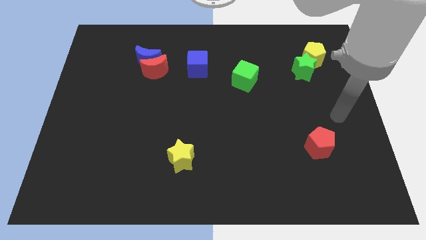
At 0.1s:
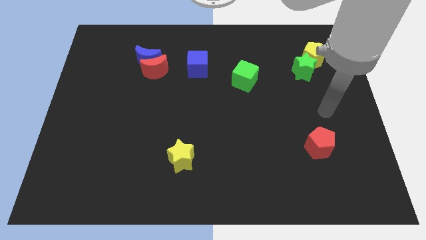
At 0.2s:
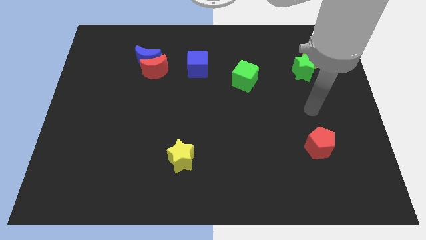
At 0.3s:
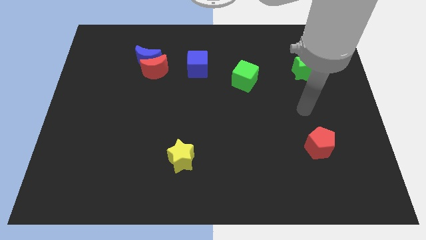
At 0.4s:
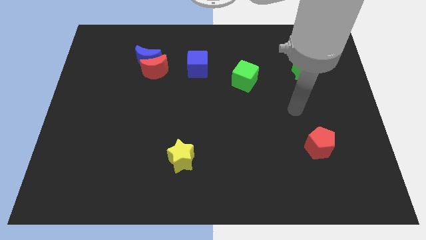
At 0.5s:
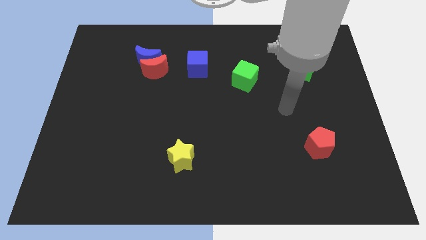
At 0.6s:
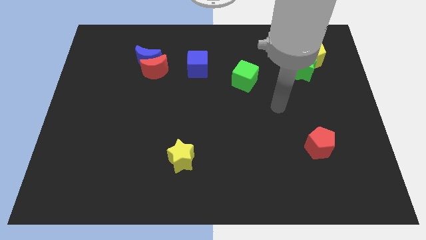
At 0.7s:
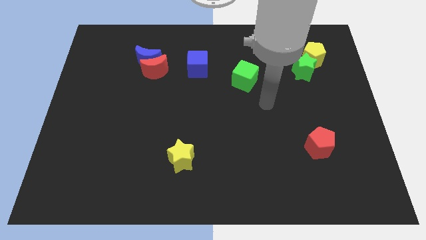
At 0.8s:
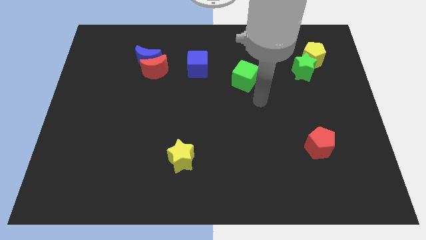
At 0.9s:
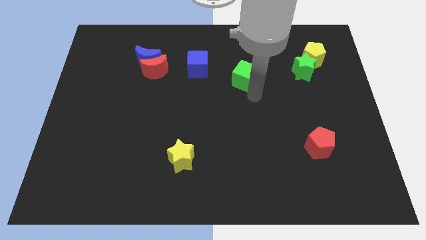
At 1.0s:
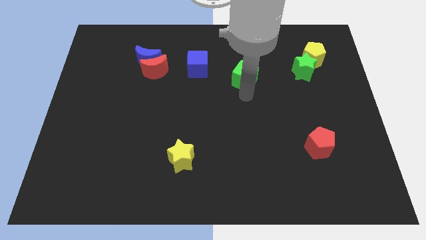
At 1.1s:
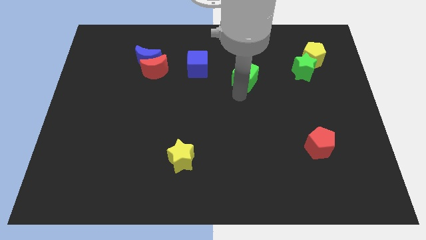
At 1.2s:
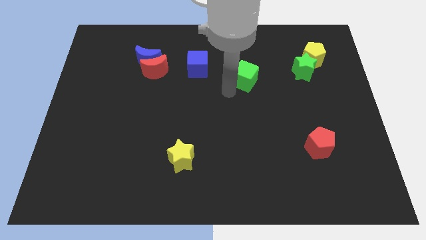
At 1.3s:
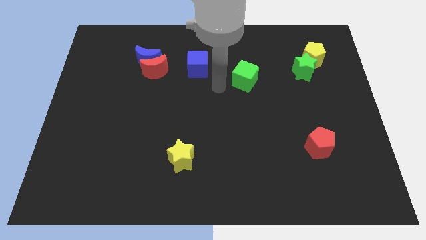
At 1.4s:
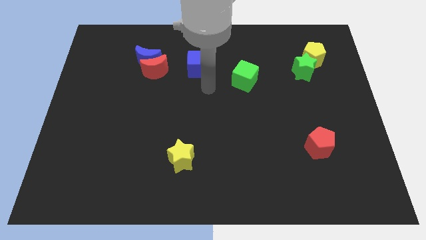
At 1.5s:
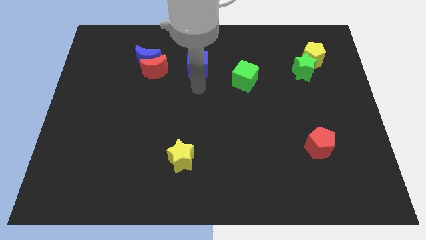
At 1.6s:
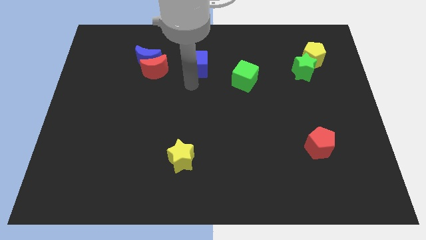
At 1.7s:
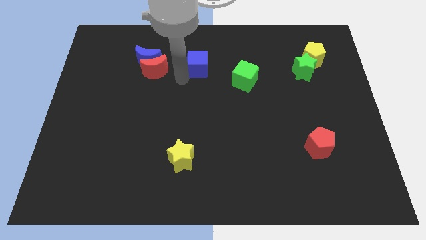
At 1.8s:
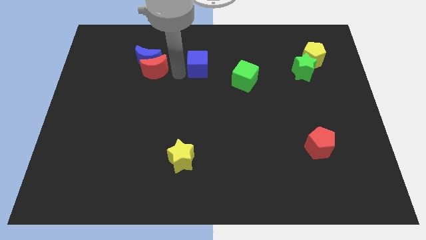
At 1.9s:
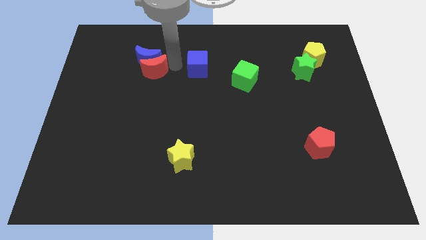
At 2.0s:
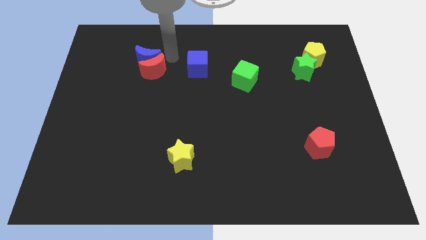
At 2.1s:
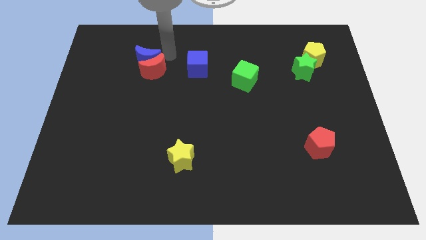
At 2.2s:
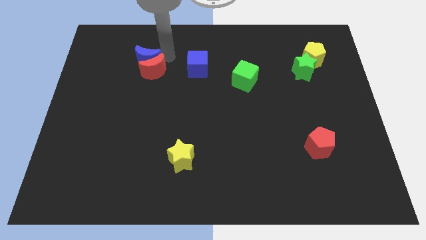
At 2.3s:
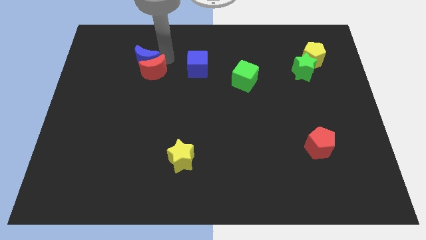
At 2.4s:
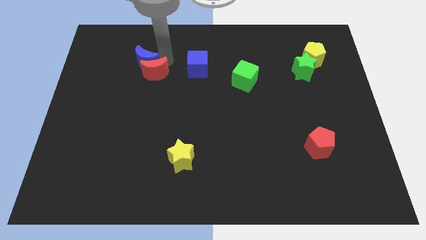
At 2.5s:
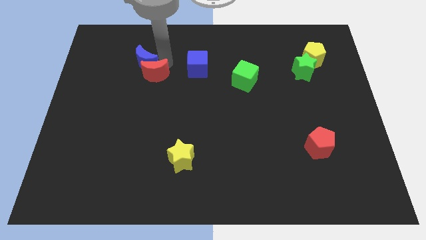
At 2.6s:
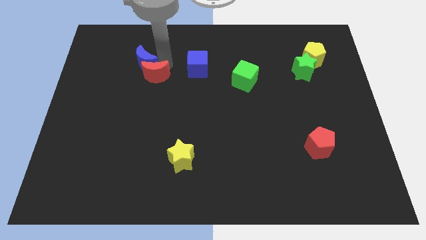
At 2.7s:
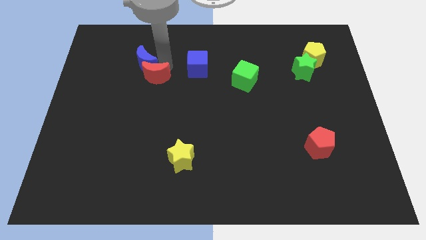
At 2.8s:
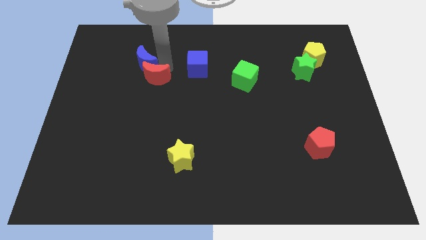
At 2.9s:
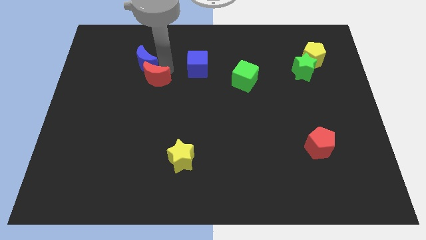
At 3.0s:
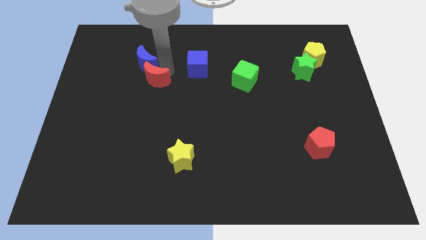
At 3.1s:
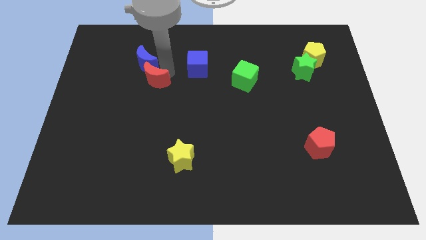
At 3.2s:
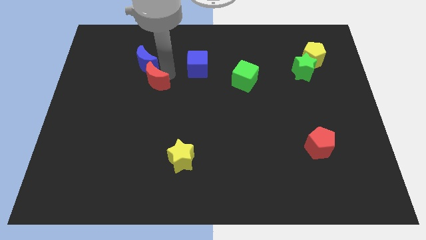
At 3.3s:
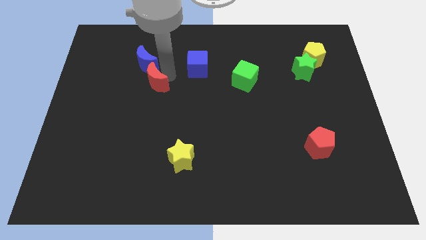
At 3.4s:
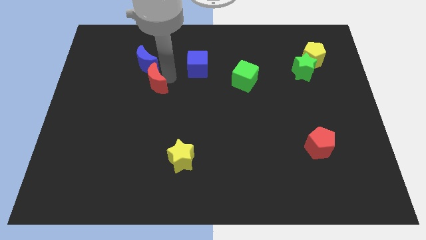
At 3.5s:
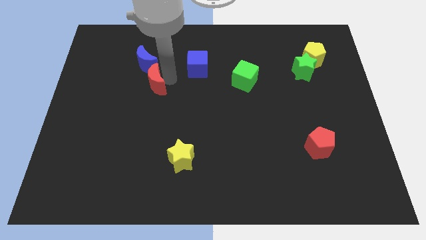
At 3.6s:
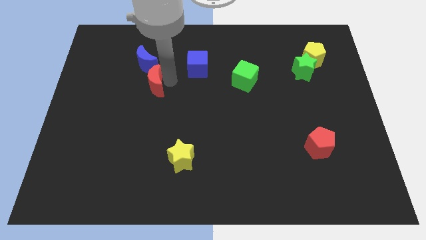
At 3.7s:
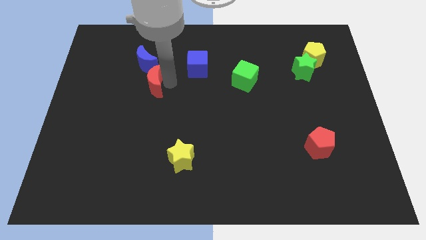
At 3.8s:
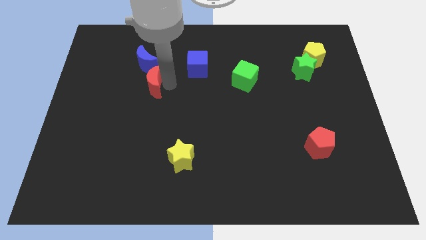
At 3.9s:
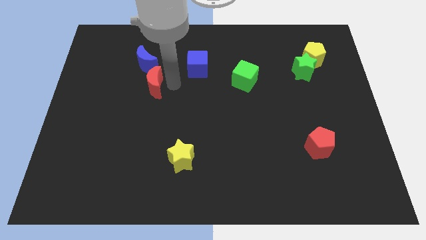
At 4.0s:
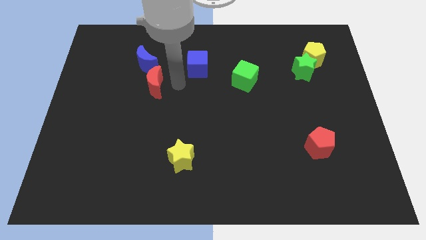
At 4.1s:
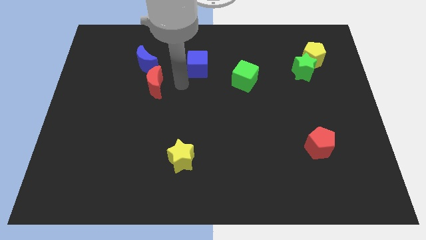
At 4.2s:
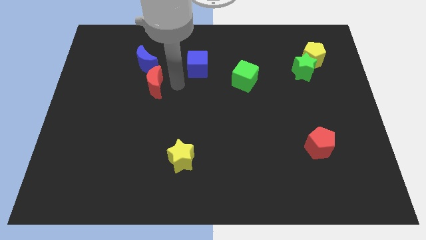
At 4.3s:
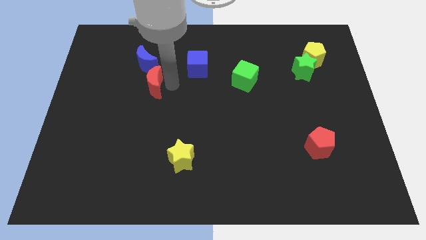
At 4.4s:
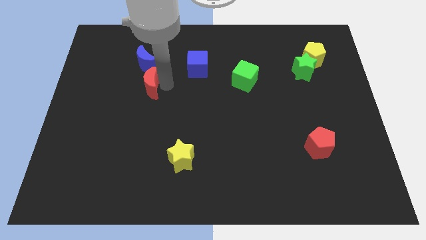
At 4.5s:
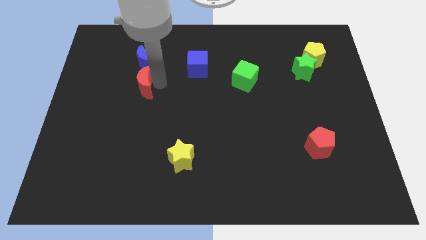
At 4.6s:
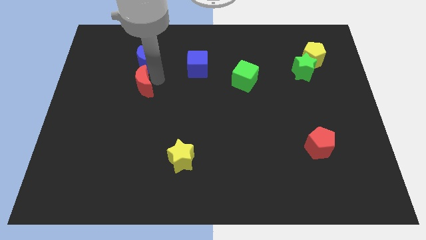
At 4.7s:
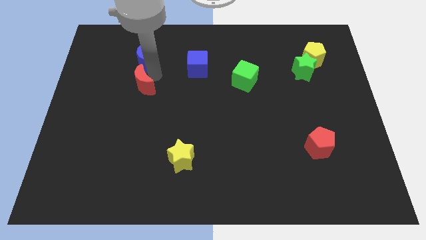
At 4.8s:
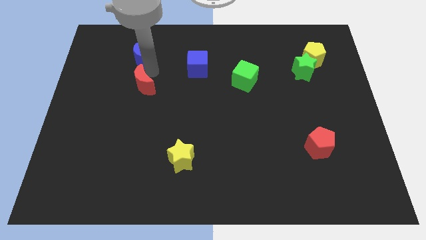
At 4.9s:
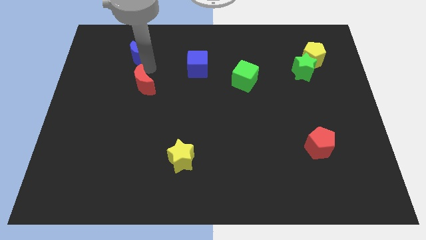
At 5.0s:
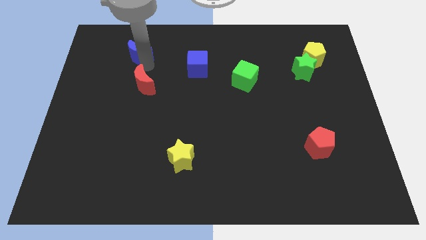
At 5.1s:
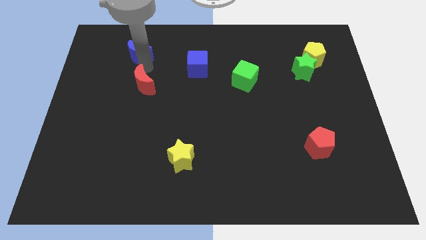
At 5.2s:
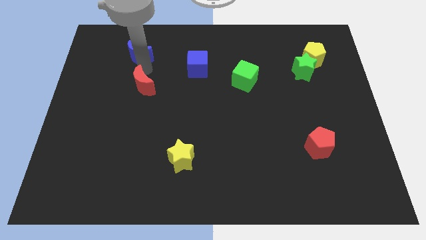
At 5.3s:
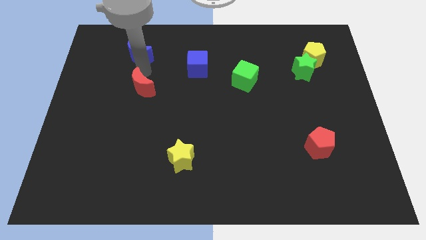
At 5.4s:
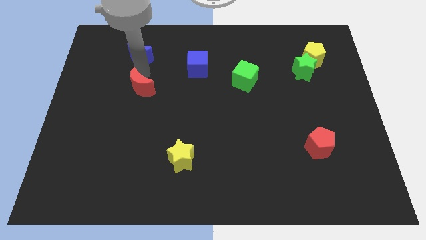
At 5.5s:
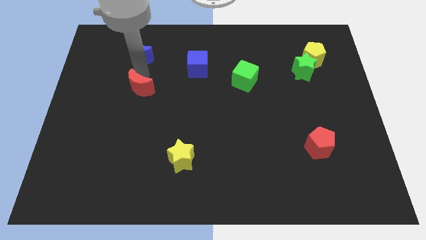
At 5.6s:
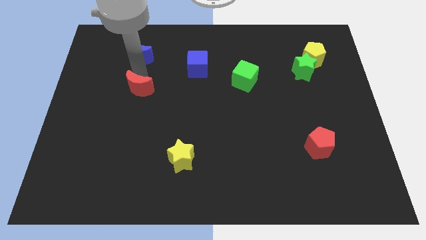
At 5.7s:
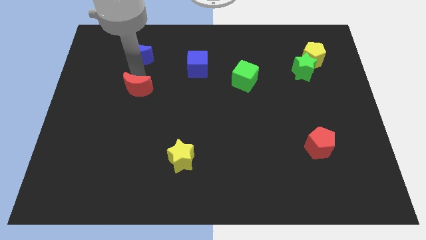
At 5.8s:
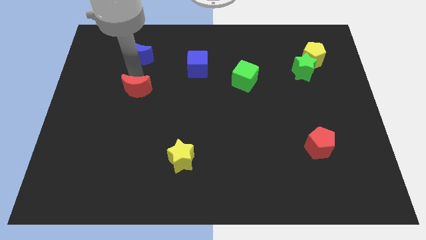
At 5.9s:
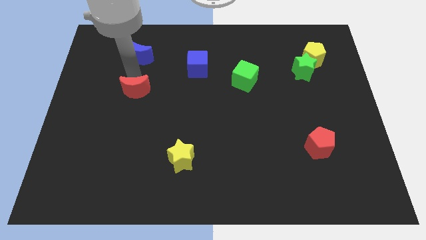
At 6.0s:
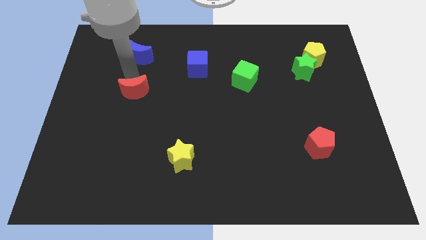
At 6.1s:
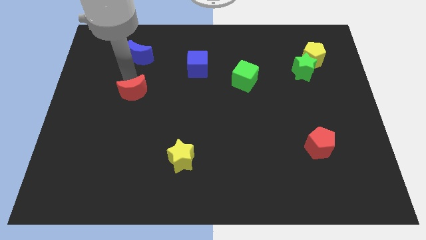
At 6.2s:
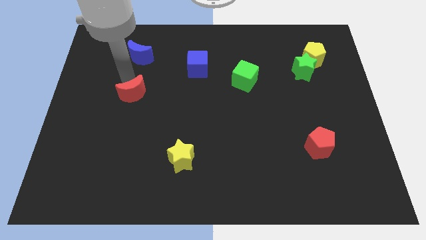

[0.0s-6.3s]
push the red moon a little bit down

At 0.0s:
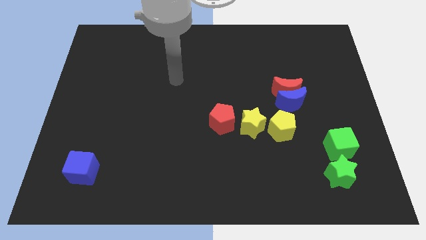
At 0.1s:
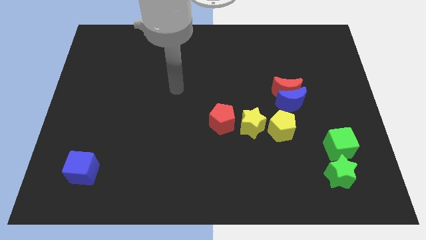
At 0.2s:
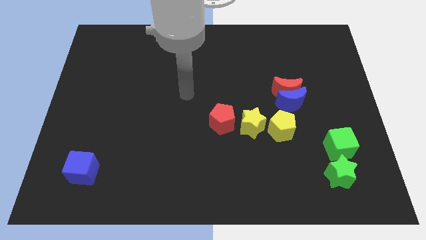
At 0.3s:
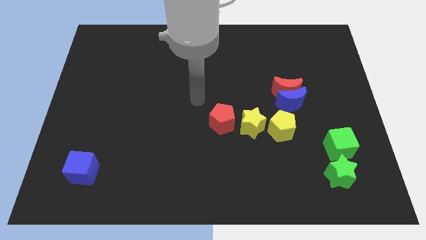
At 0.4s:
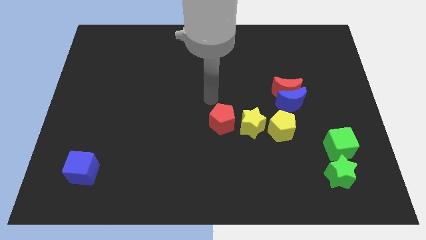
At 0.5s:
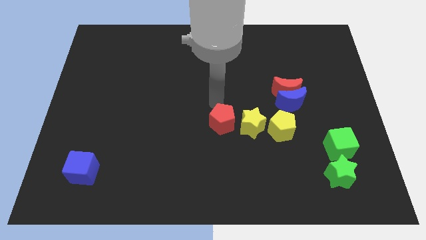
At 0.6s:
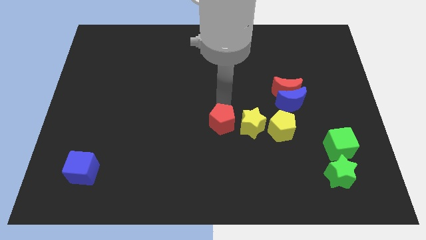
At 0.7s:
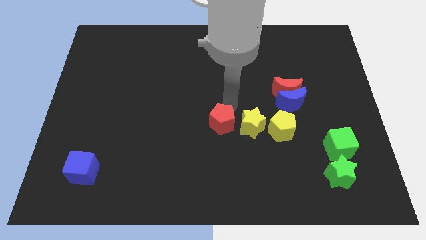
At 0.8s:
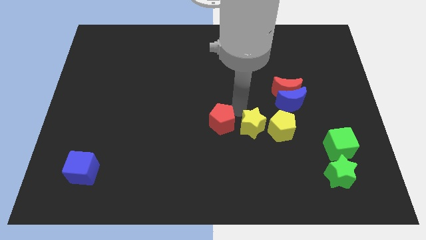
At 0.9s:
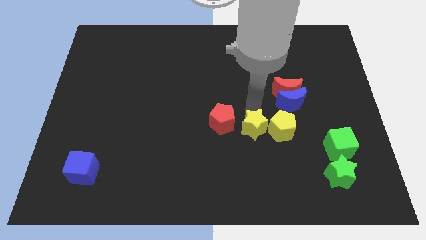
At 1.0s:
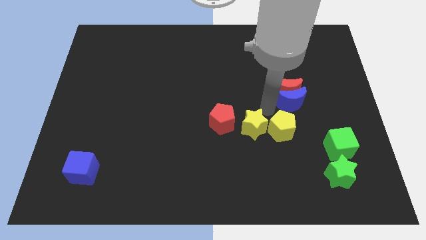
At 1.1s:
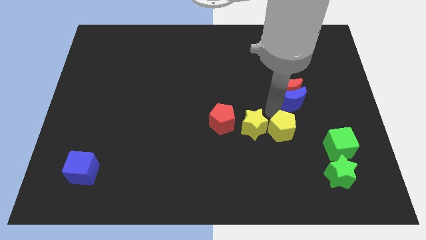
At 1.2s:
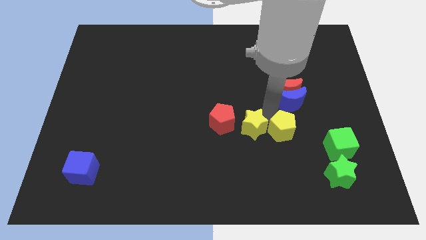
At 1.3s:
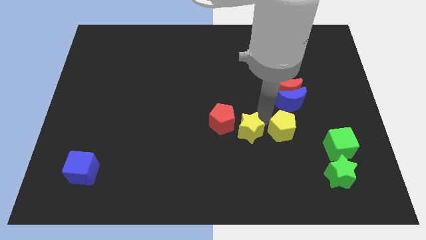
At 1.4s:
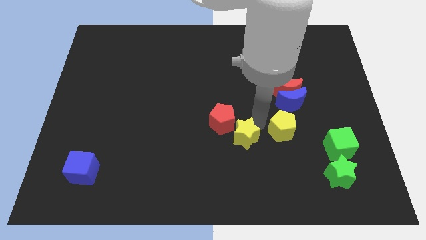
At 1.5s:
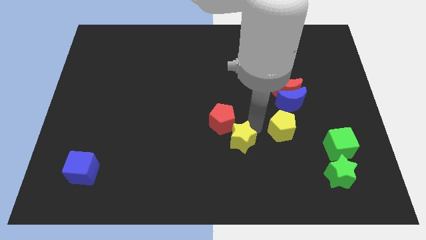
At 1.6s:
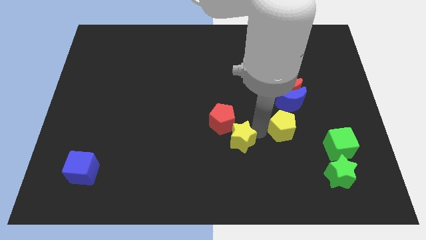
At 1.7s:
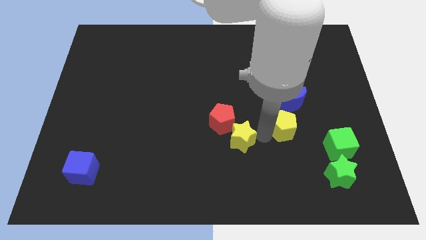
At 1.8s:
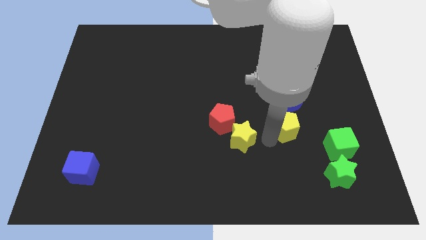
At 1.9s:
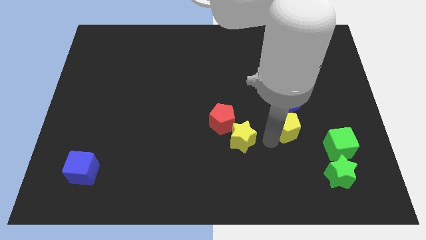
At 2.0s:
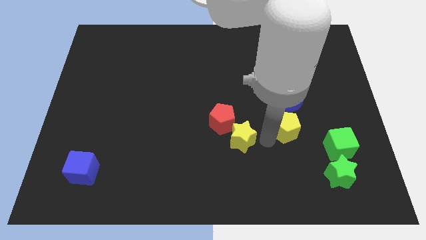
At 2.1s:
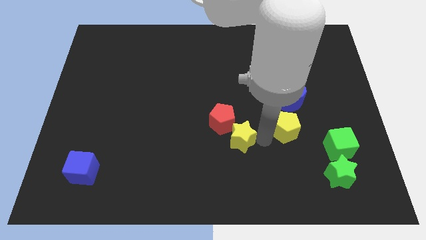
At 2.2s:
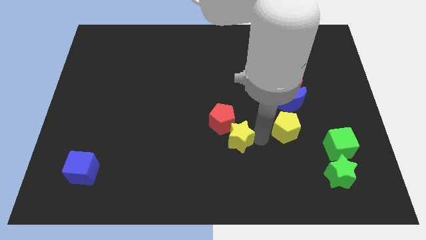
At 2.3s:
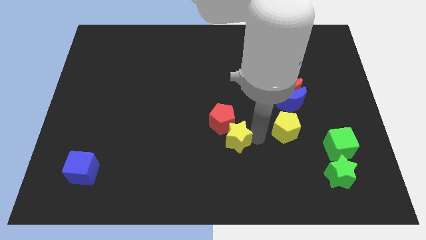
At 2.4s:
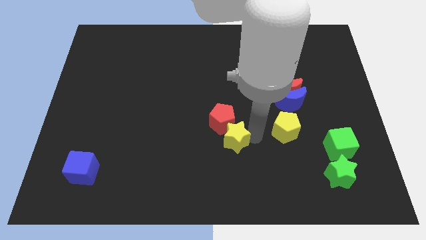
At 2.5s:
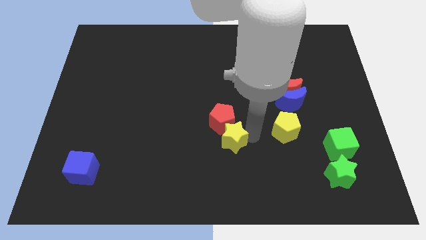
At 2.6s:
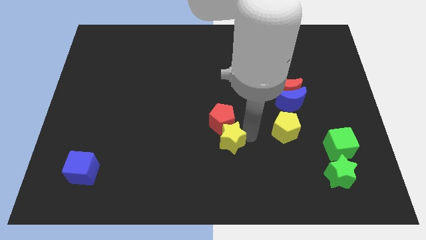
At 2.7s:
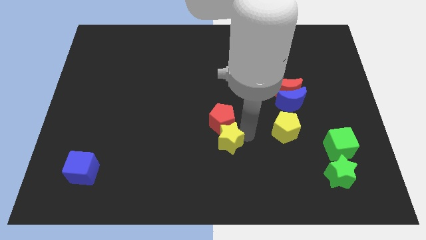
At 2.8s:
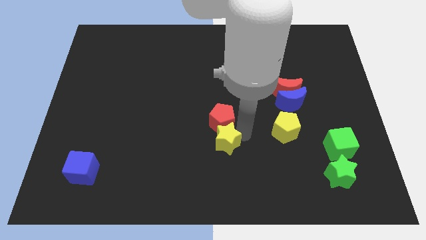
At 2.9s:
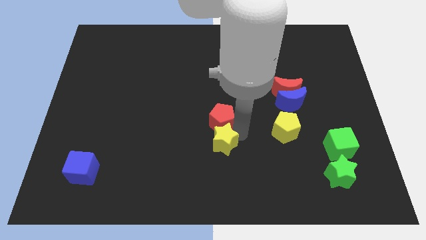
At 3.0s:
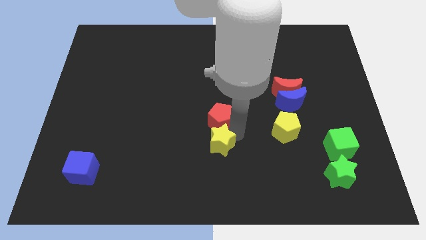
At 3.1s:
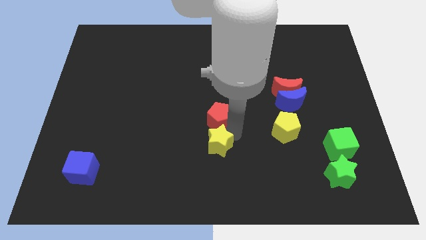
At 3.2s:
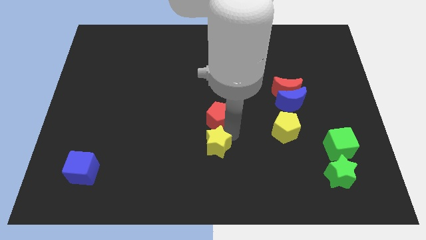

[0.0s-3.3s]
move the yellow star a little left
